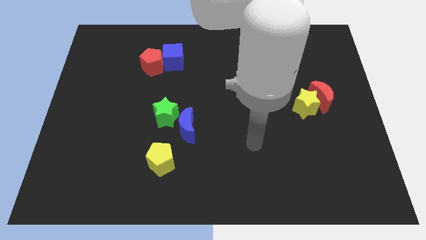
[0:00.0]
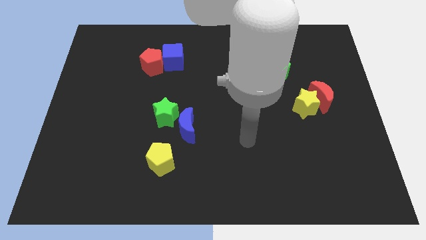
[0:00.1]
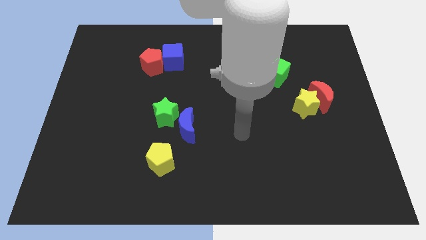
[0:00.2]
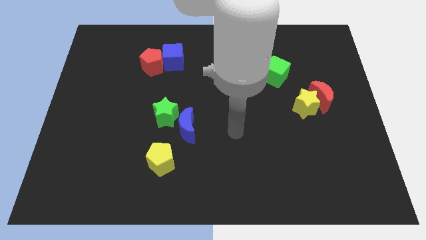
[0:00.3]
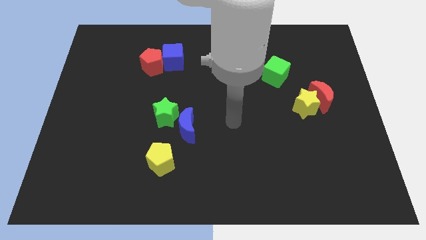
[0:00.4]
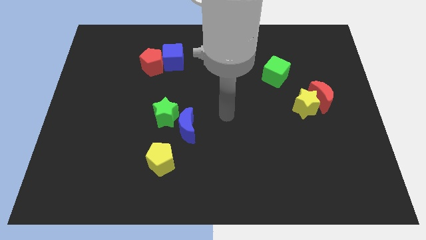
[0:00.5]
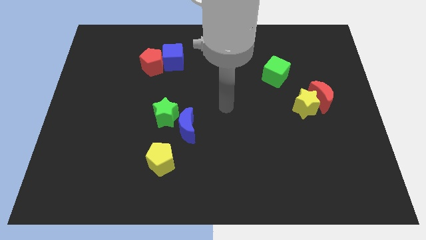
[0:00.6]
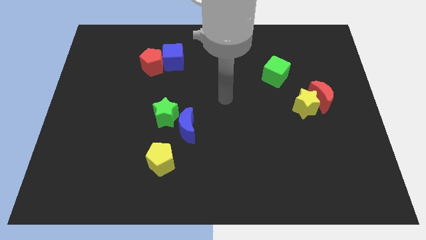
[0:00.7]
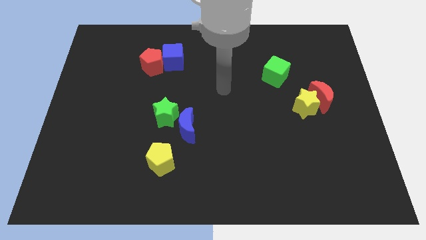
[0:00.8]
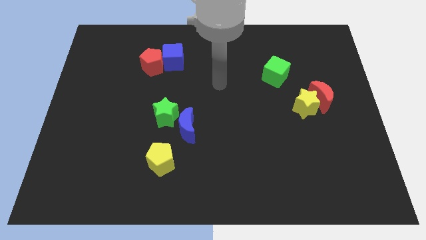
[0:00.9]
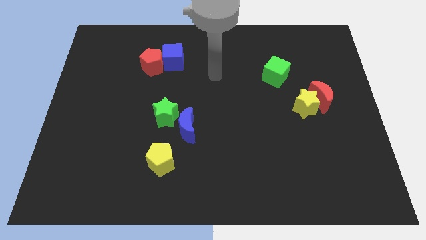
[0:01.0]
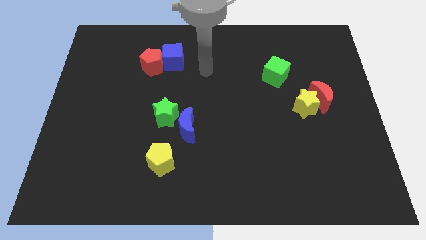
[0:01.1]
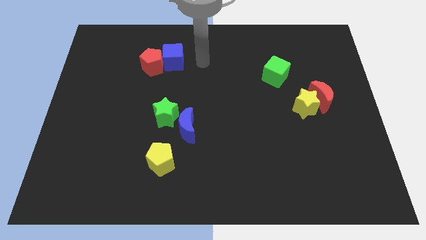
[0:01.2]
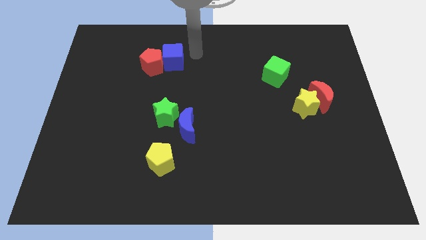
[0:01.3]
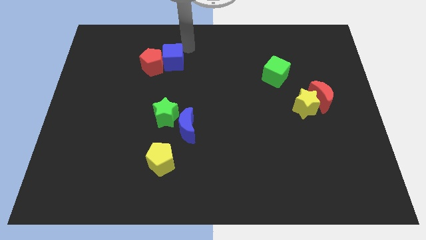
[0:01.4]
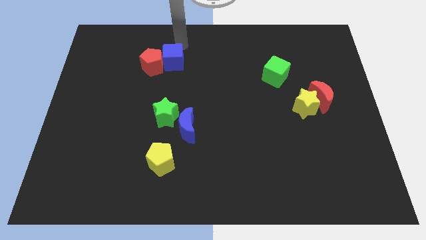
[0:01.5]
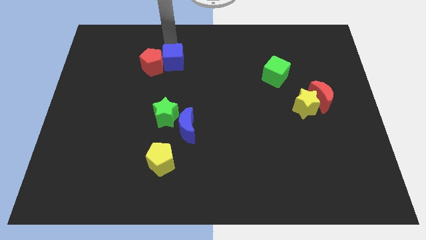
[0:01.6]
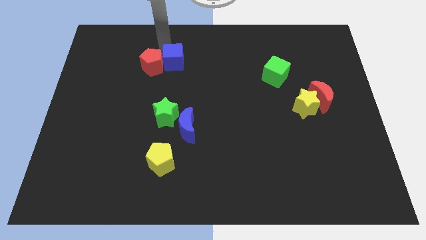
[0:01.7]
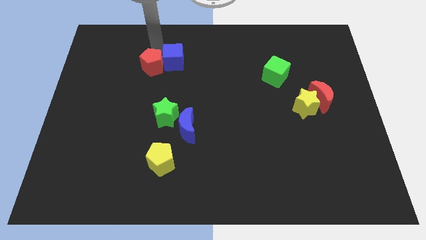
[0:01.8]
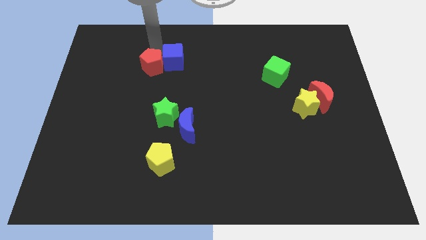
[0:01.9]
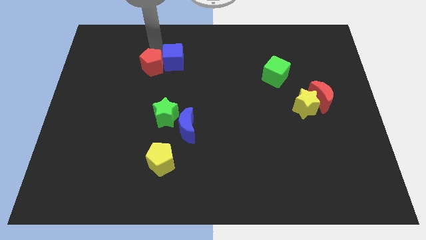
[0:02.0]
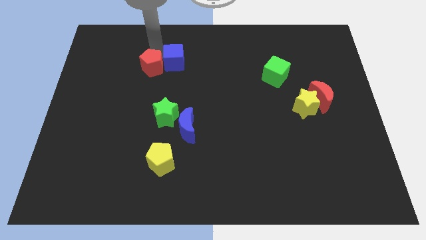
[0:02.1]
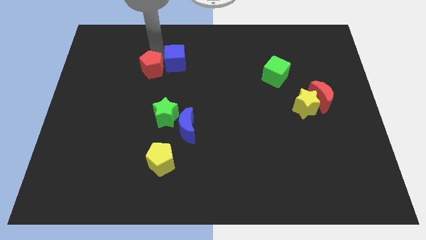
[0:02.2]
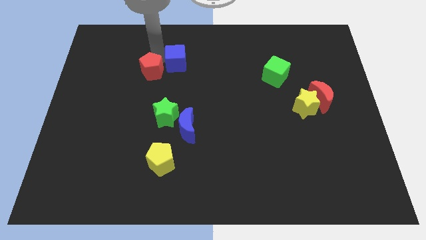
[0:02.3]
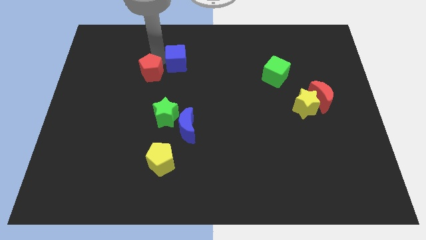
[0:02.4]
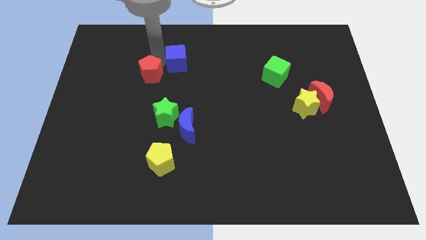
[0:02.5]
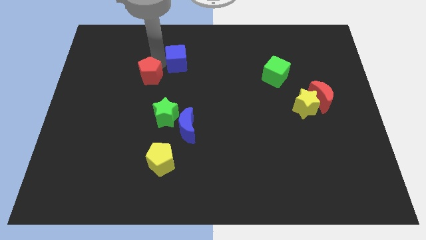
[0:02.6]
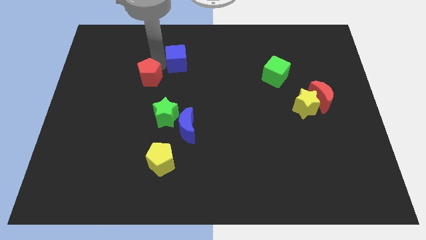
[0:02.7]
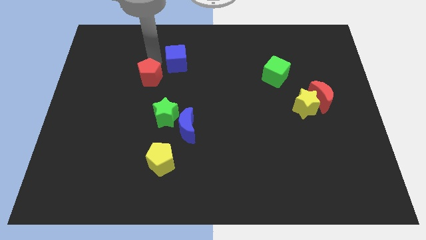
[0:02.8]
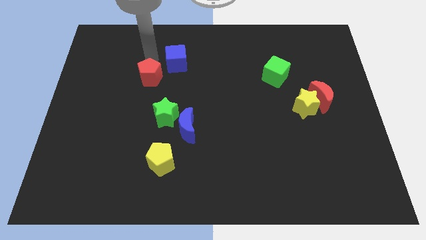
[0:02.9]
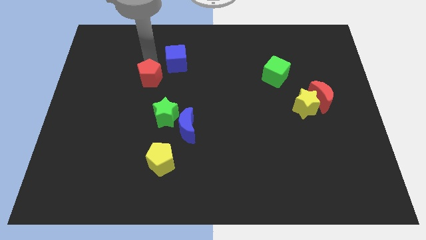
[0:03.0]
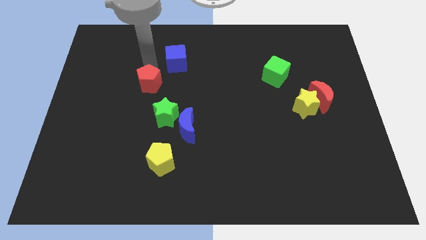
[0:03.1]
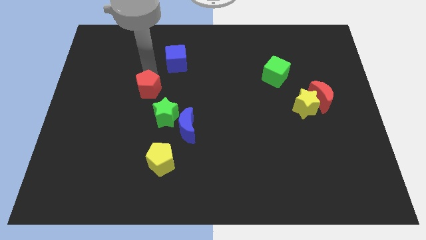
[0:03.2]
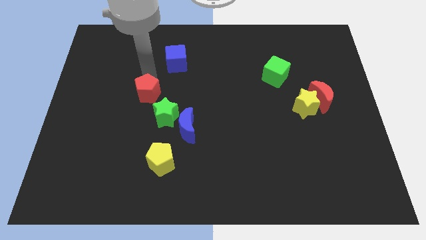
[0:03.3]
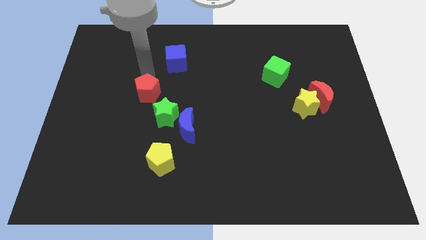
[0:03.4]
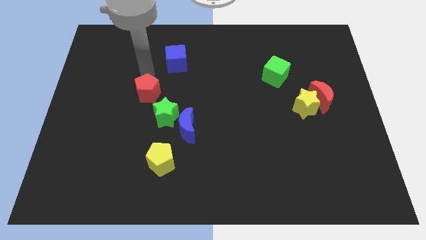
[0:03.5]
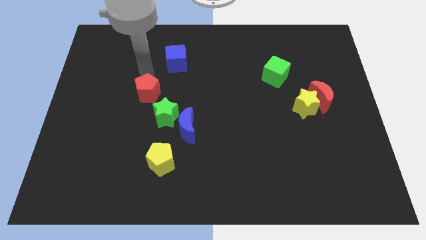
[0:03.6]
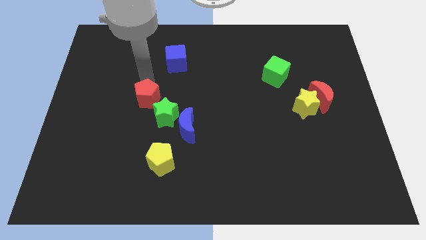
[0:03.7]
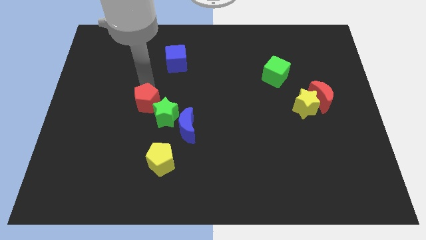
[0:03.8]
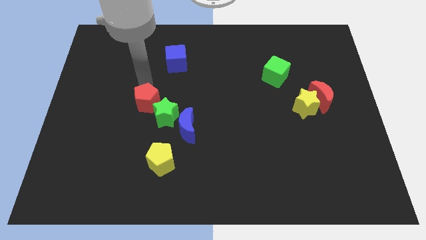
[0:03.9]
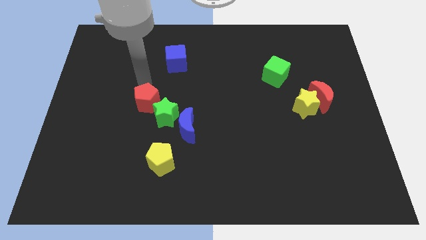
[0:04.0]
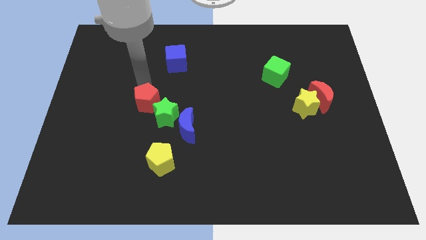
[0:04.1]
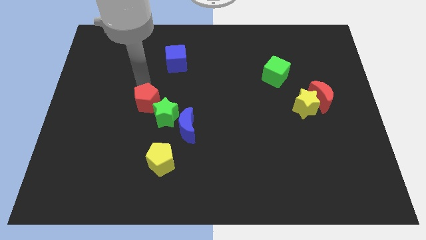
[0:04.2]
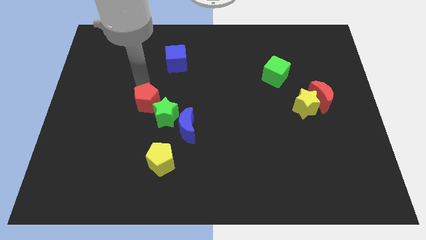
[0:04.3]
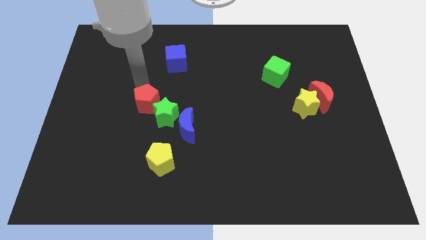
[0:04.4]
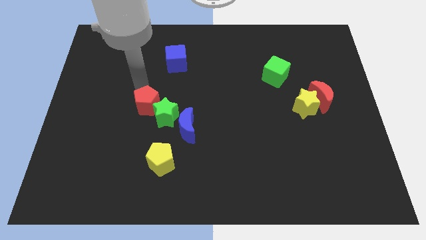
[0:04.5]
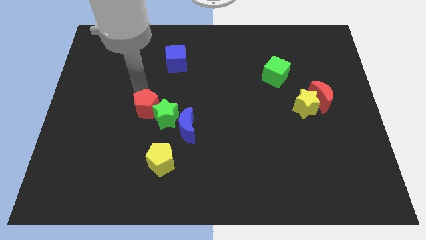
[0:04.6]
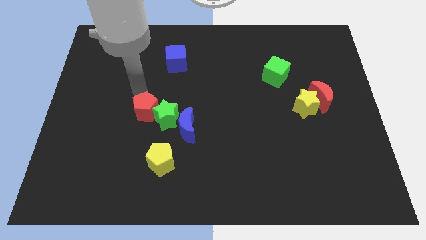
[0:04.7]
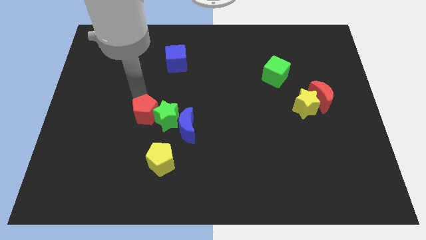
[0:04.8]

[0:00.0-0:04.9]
push the red pentagon diagonally down and to the left of the green star

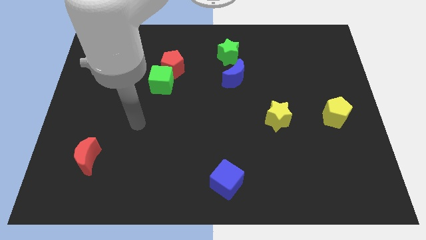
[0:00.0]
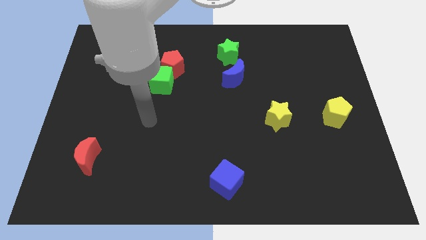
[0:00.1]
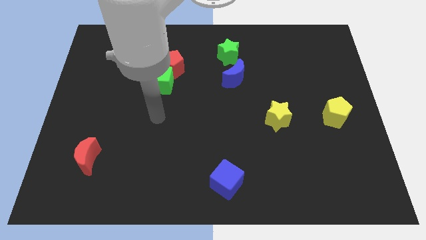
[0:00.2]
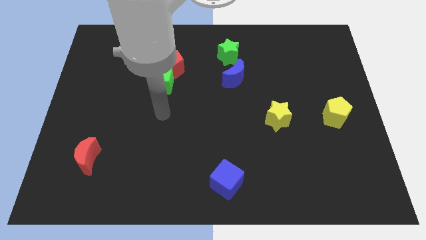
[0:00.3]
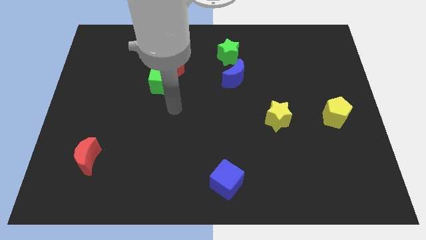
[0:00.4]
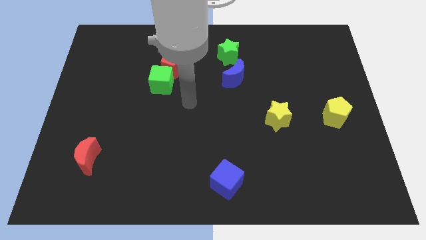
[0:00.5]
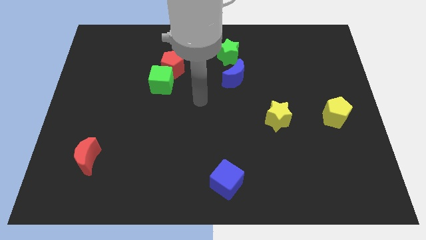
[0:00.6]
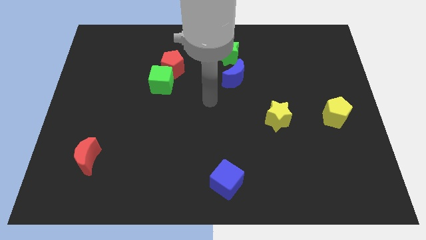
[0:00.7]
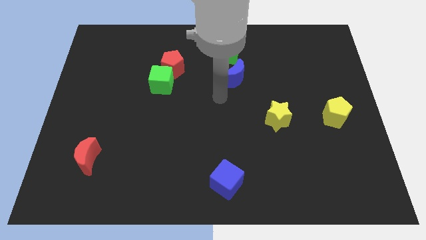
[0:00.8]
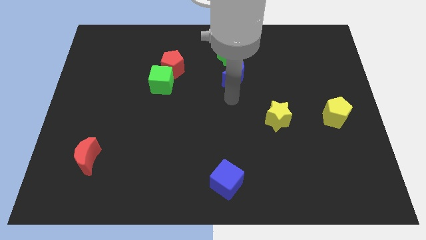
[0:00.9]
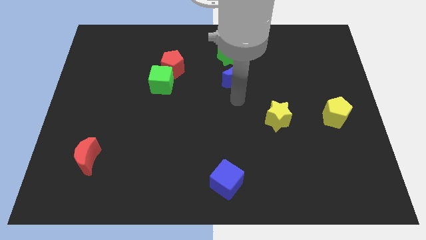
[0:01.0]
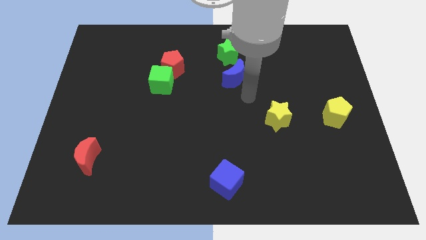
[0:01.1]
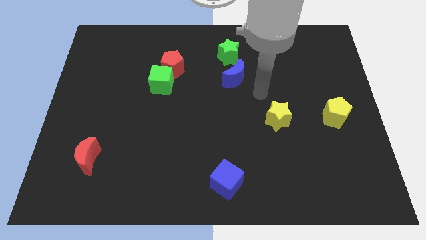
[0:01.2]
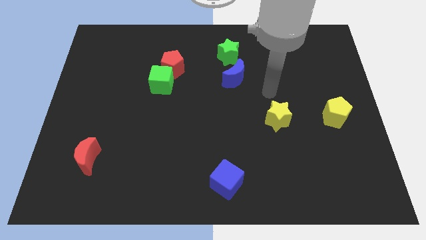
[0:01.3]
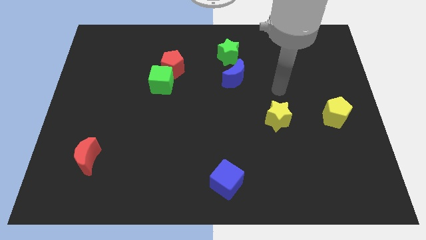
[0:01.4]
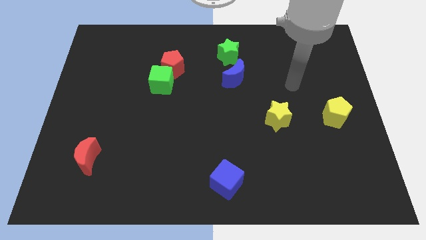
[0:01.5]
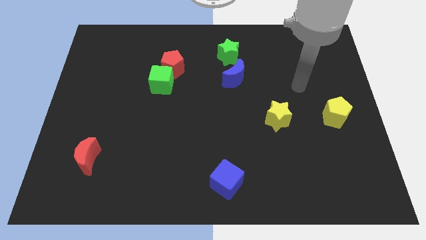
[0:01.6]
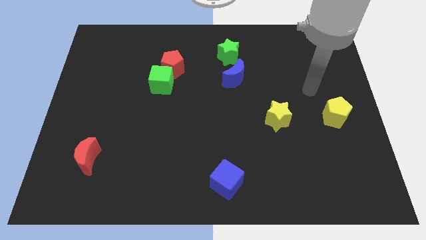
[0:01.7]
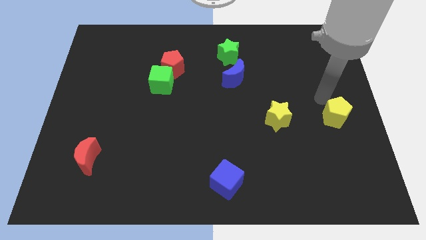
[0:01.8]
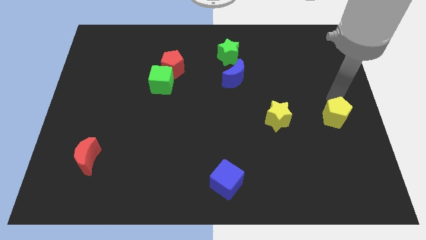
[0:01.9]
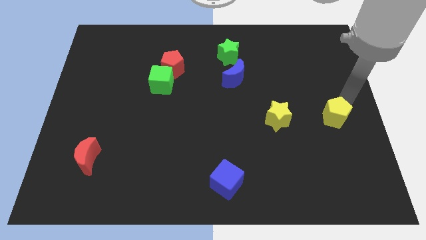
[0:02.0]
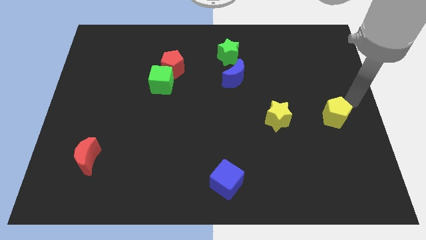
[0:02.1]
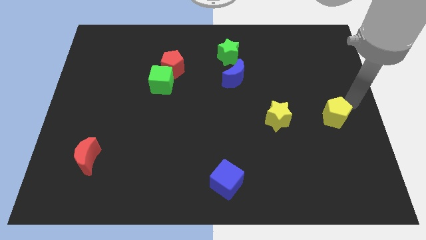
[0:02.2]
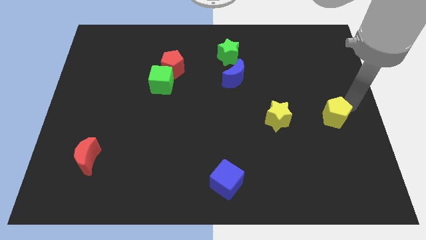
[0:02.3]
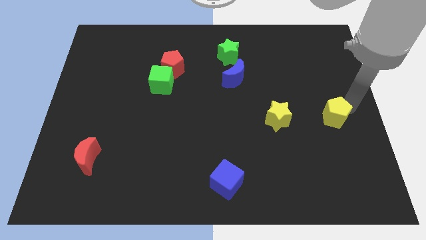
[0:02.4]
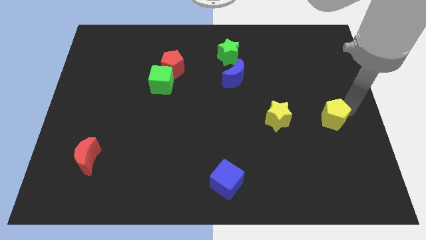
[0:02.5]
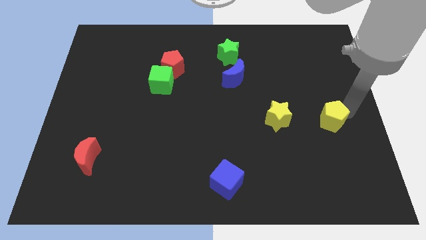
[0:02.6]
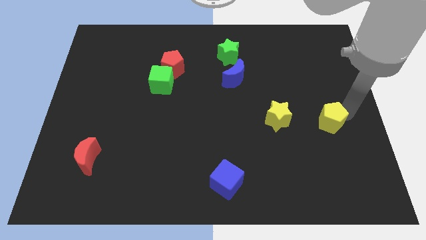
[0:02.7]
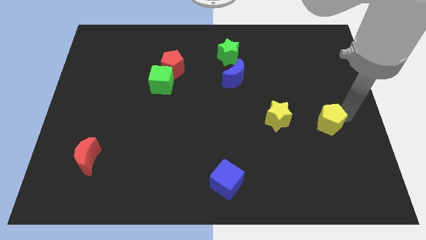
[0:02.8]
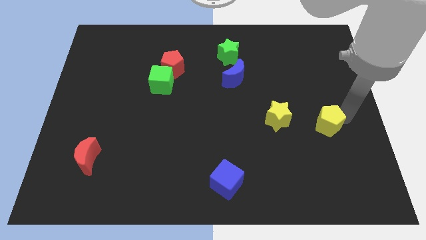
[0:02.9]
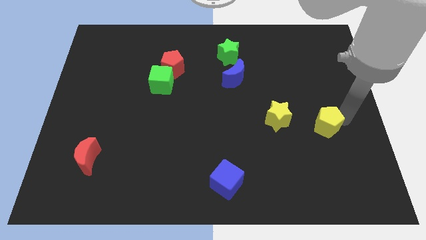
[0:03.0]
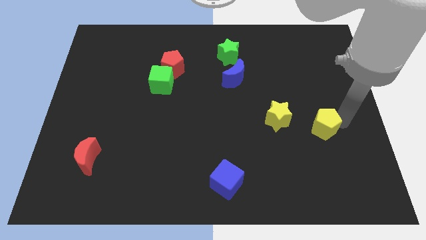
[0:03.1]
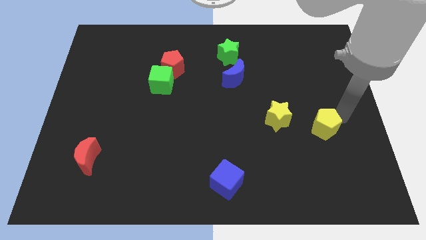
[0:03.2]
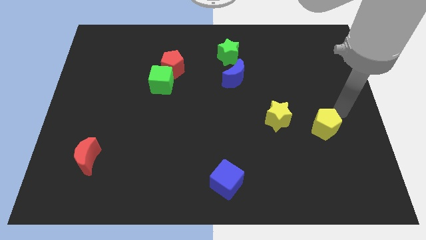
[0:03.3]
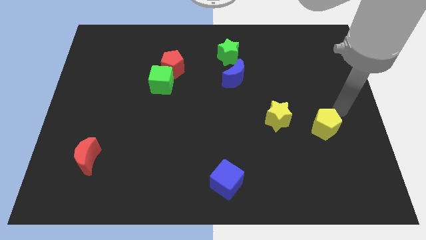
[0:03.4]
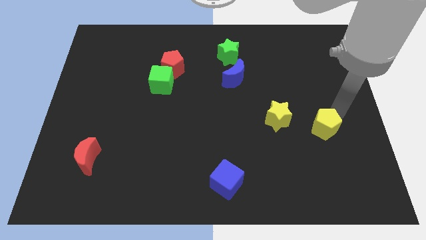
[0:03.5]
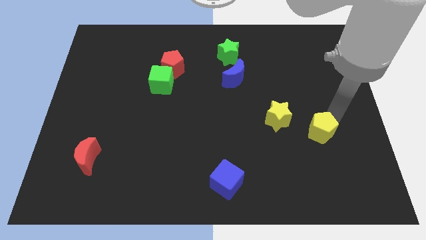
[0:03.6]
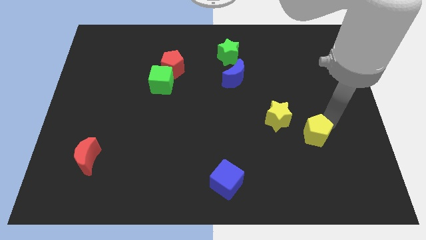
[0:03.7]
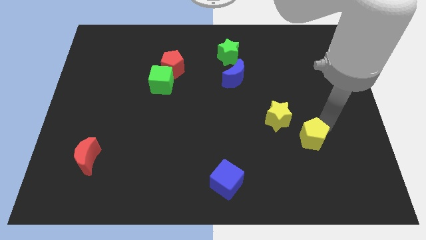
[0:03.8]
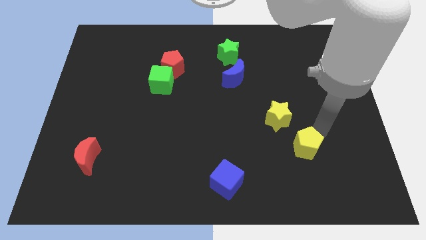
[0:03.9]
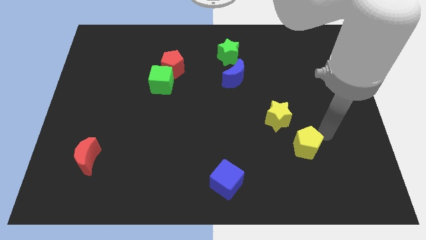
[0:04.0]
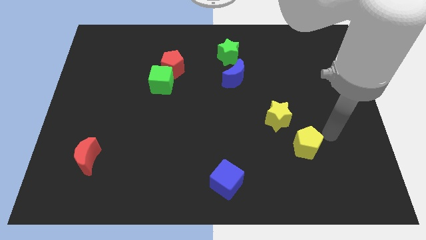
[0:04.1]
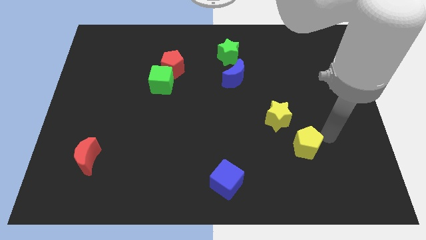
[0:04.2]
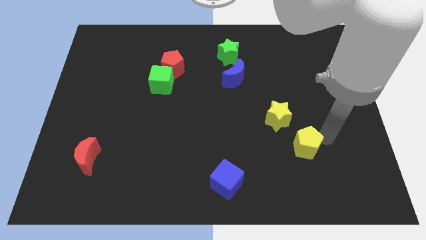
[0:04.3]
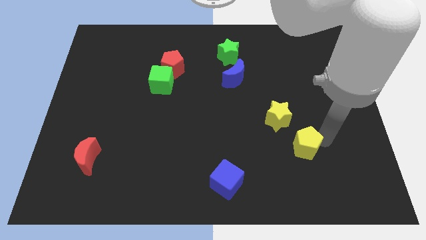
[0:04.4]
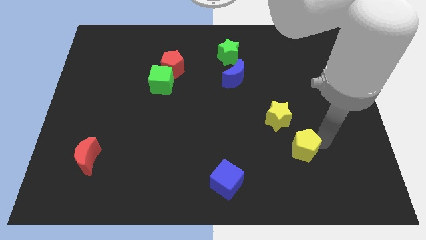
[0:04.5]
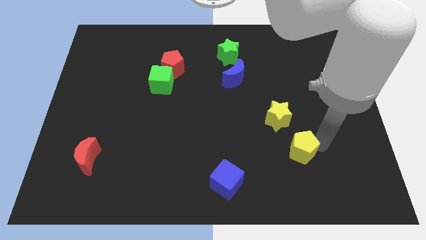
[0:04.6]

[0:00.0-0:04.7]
slide the yellow pentagon to the bottom side of the yellow star
